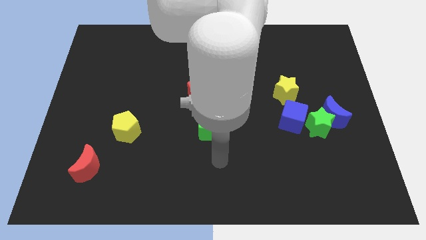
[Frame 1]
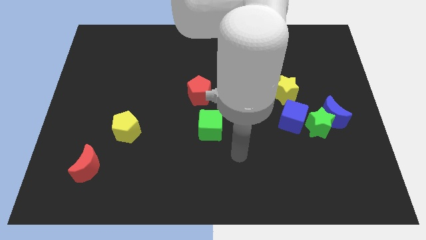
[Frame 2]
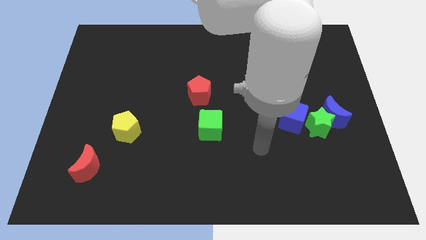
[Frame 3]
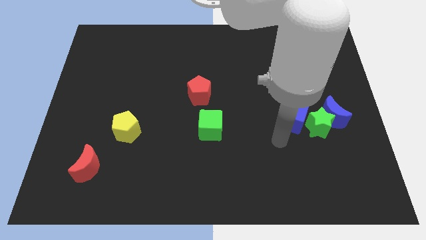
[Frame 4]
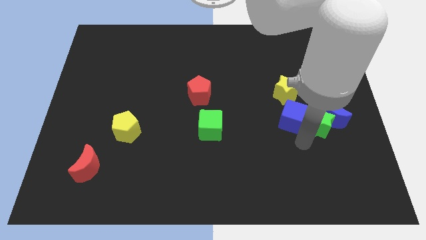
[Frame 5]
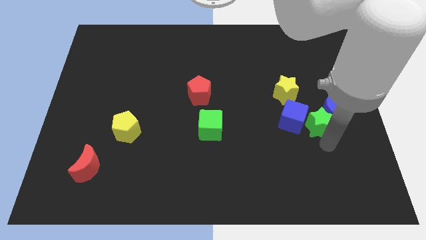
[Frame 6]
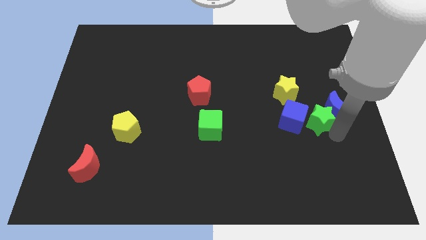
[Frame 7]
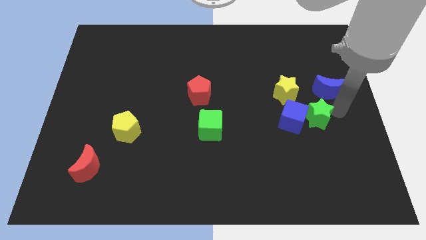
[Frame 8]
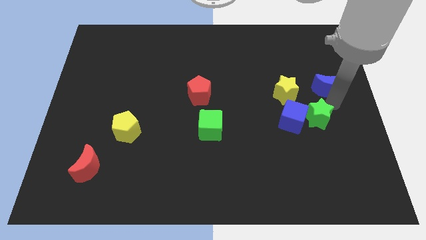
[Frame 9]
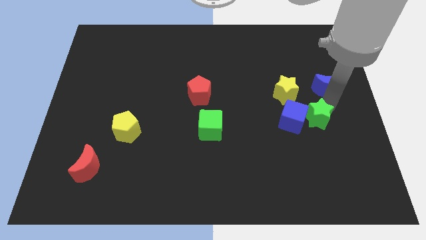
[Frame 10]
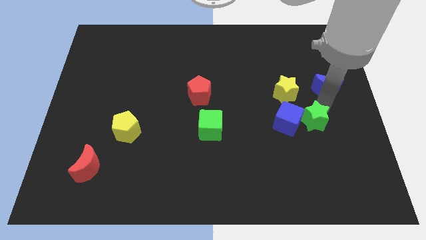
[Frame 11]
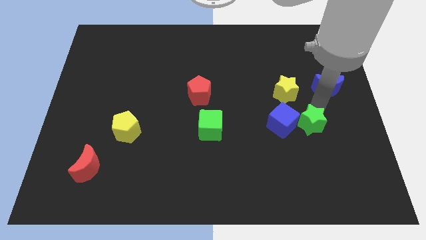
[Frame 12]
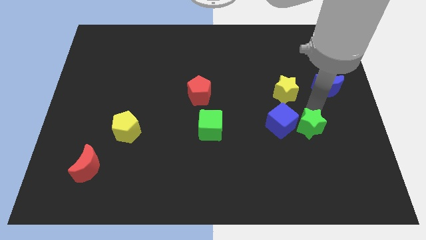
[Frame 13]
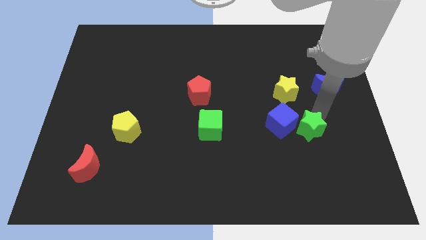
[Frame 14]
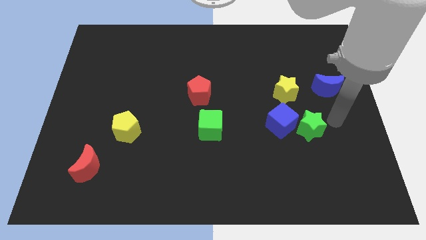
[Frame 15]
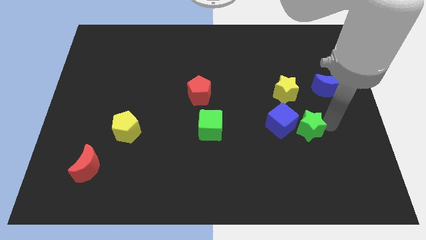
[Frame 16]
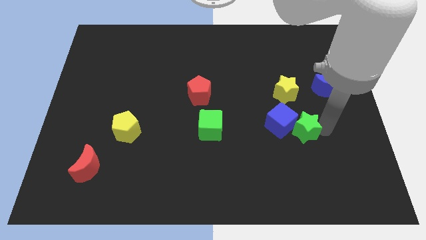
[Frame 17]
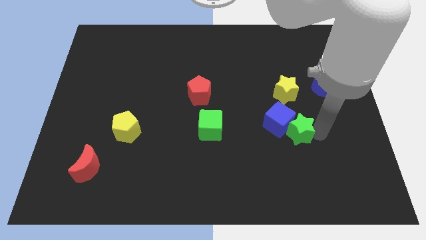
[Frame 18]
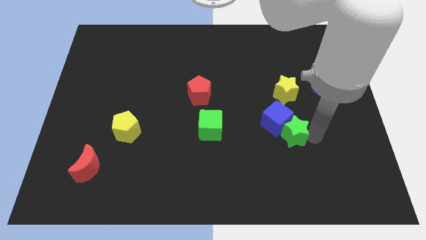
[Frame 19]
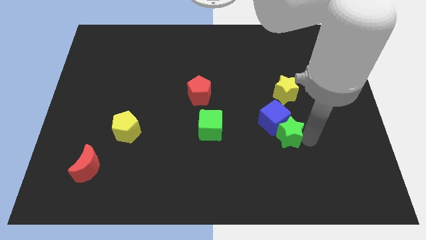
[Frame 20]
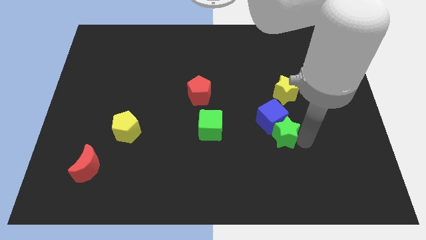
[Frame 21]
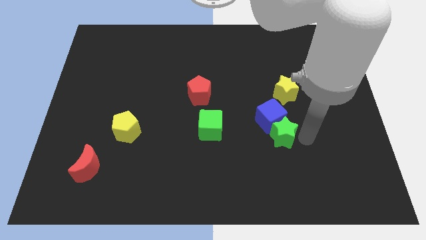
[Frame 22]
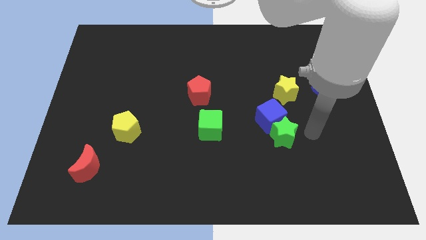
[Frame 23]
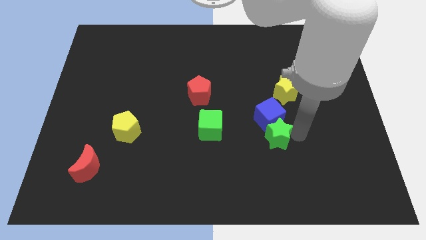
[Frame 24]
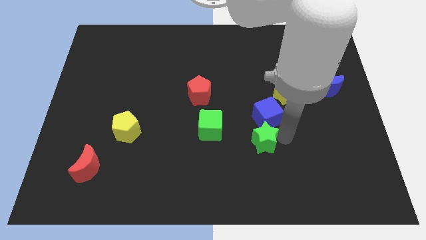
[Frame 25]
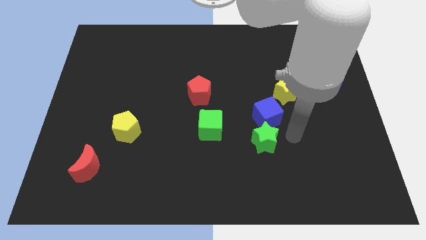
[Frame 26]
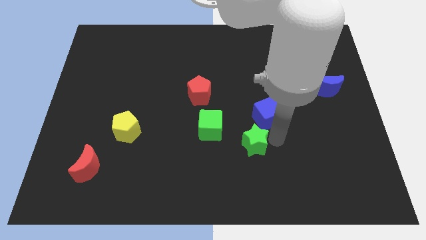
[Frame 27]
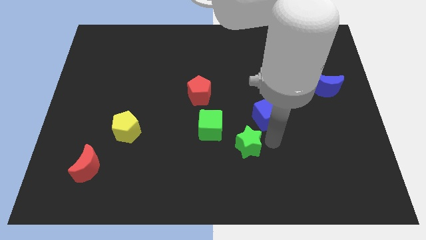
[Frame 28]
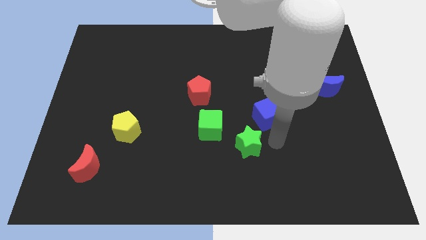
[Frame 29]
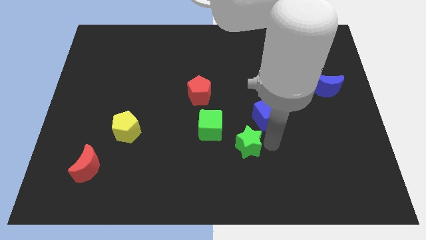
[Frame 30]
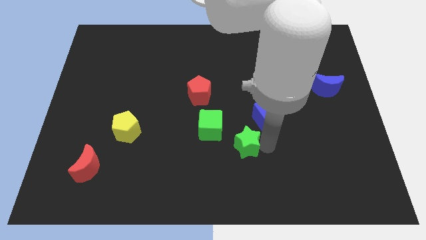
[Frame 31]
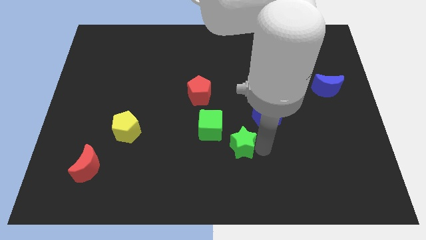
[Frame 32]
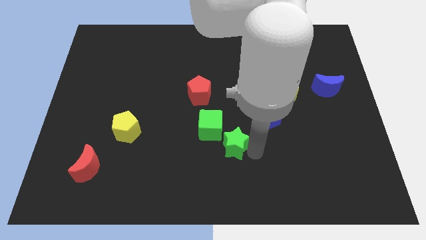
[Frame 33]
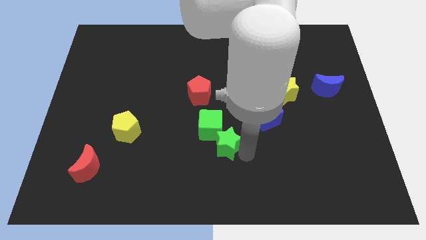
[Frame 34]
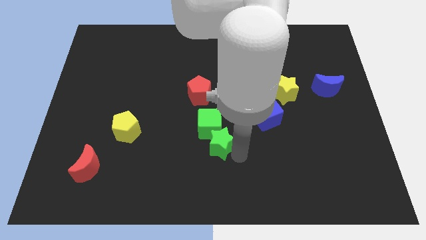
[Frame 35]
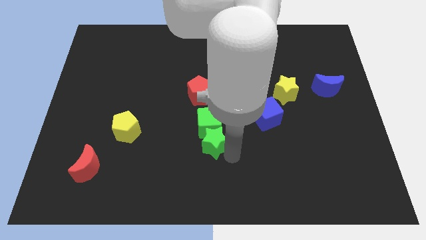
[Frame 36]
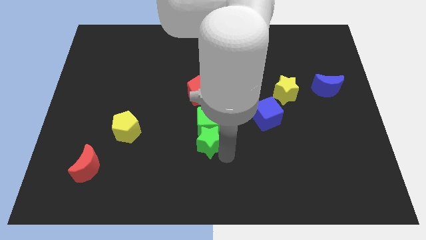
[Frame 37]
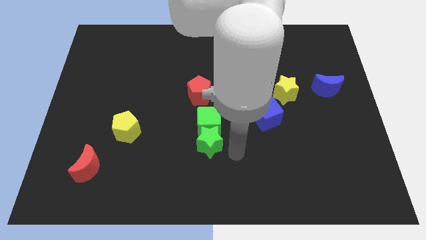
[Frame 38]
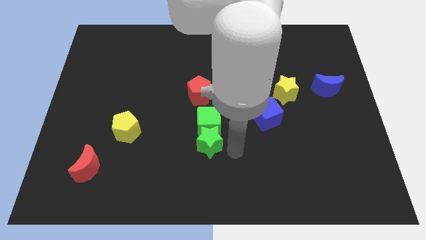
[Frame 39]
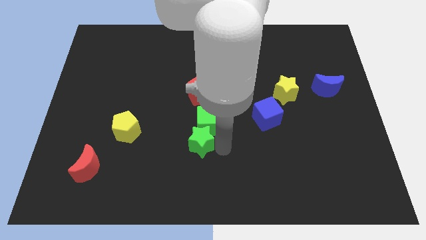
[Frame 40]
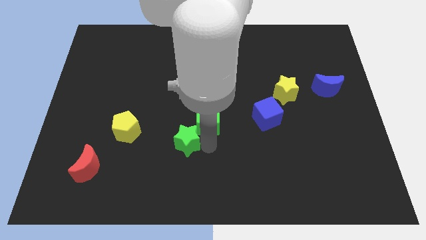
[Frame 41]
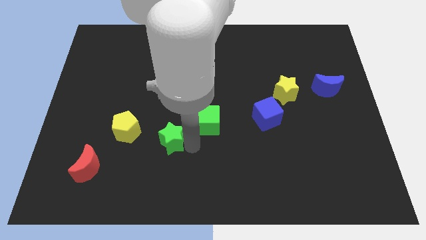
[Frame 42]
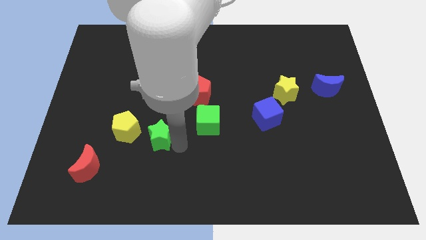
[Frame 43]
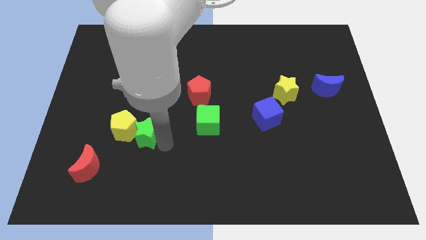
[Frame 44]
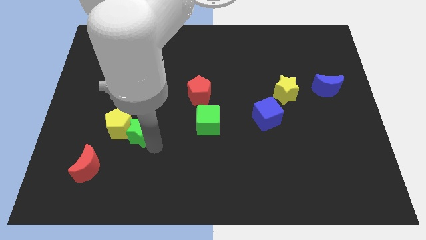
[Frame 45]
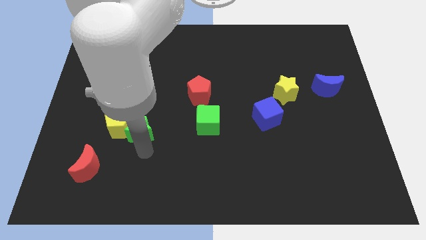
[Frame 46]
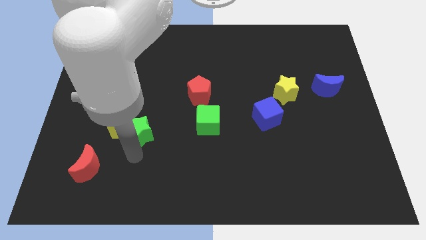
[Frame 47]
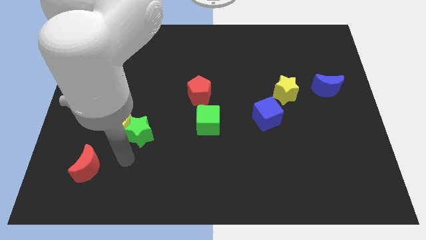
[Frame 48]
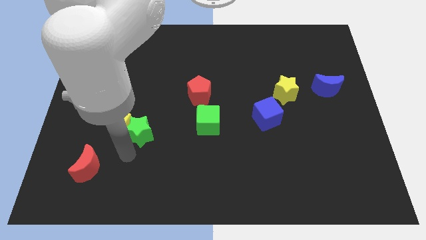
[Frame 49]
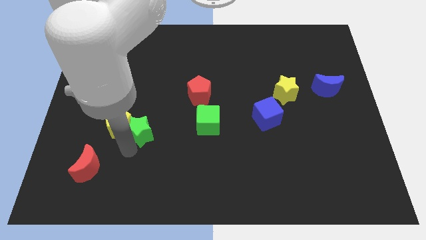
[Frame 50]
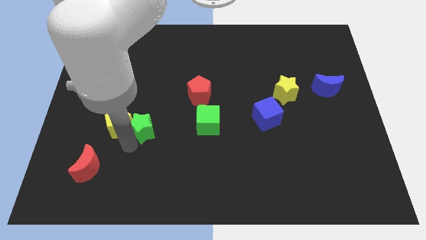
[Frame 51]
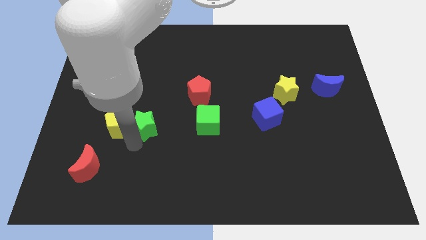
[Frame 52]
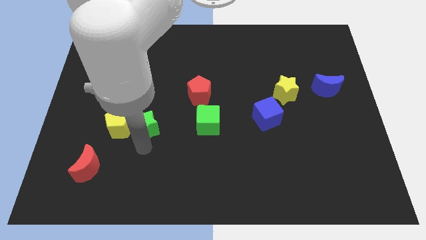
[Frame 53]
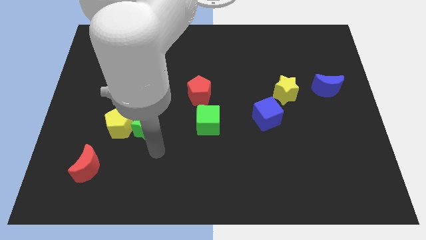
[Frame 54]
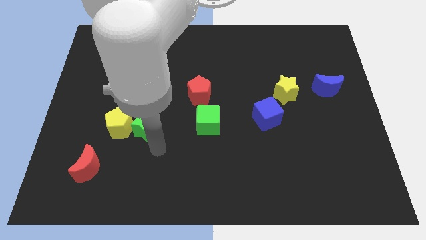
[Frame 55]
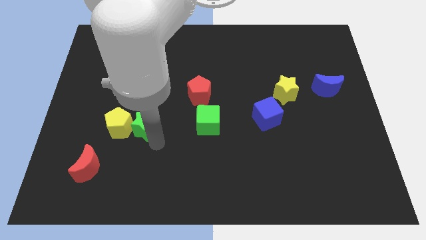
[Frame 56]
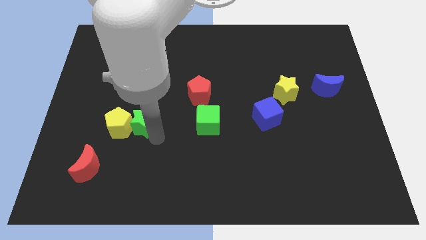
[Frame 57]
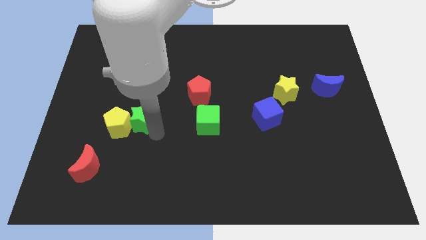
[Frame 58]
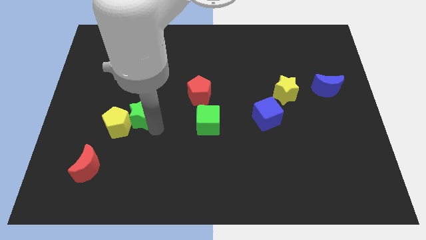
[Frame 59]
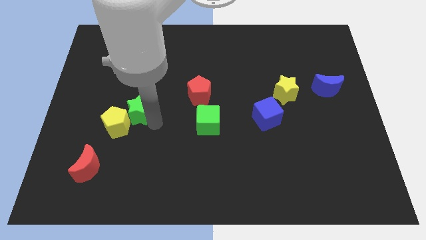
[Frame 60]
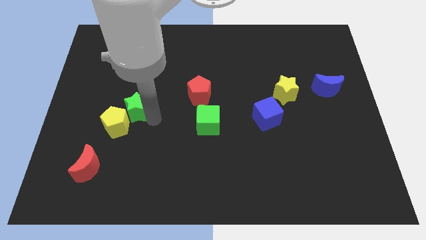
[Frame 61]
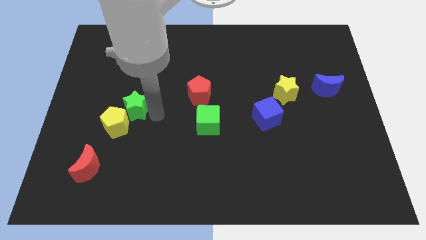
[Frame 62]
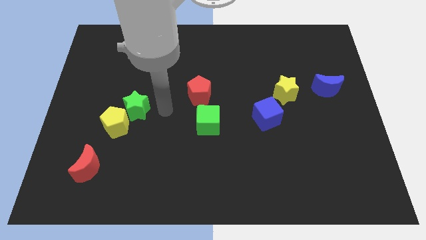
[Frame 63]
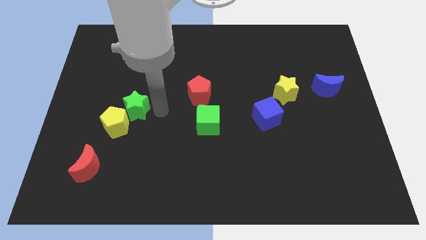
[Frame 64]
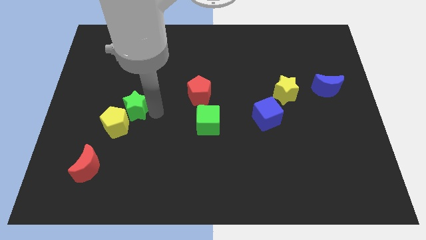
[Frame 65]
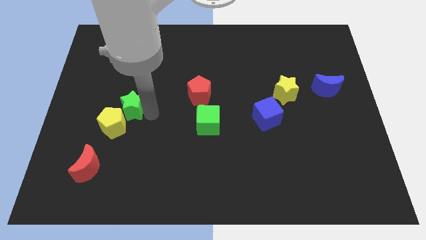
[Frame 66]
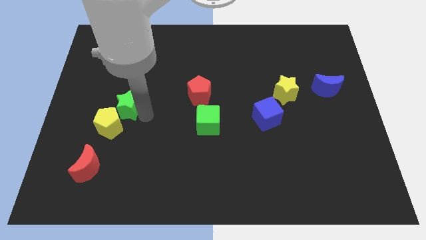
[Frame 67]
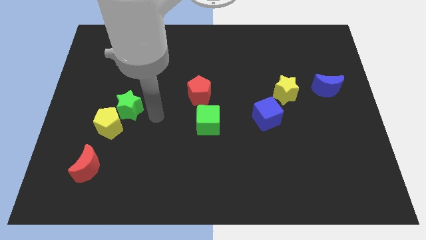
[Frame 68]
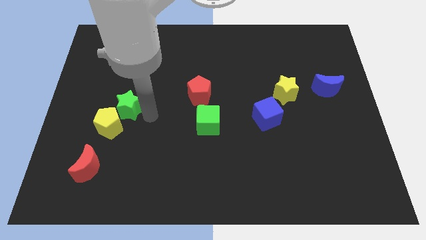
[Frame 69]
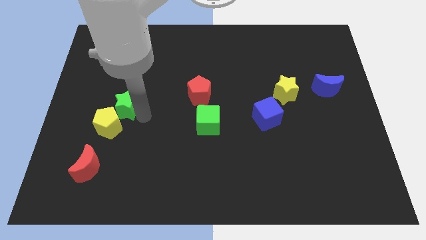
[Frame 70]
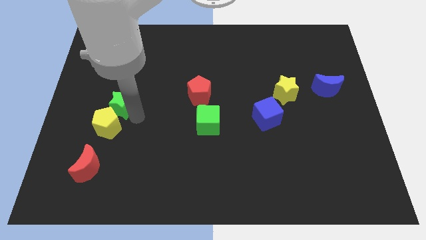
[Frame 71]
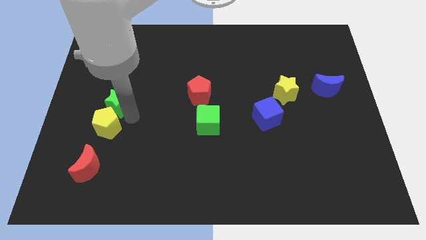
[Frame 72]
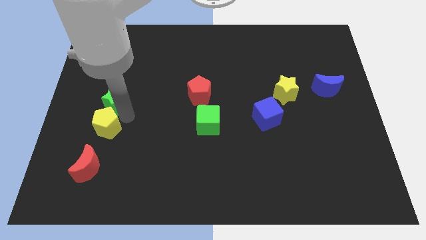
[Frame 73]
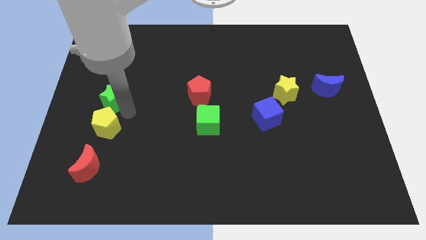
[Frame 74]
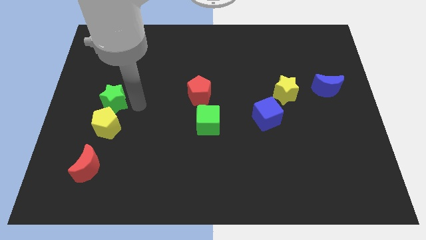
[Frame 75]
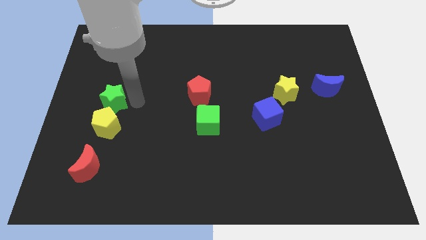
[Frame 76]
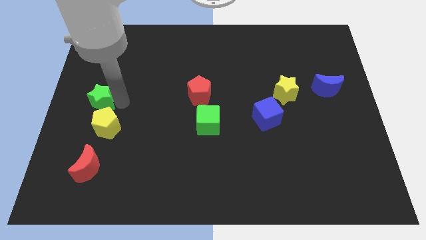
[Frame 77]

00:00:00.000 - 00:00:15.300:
move the green star to the left side
